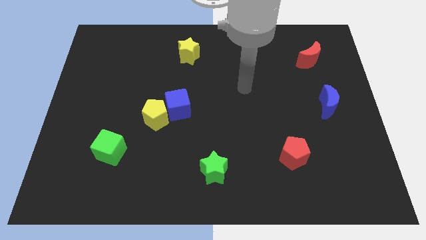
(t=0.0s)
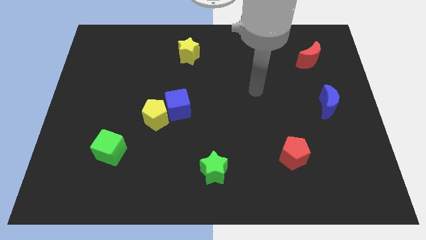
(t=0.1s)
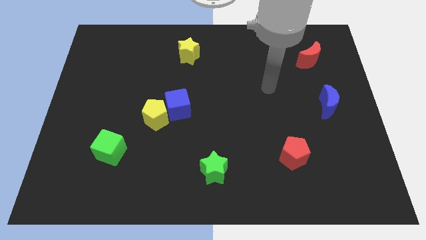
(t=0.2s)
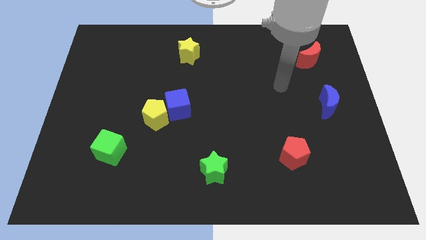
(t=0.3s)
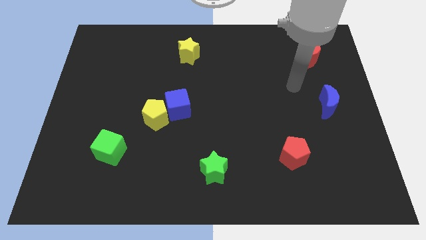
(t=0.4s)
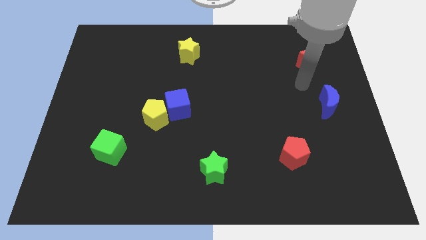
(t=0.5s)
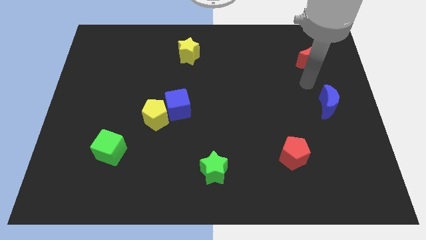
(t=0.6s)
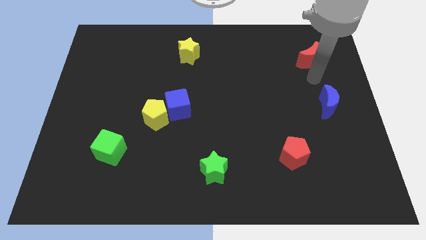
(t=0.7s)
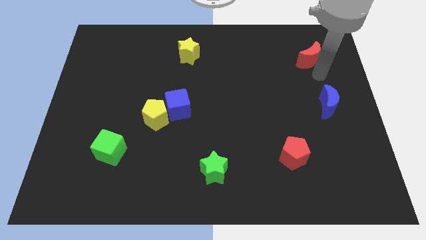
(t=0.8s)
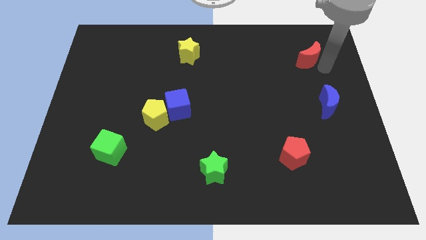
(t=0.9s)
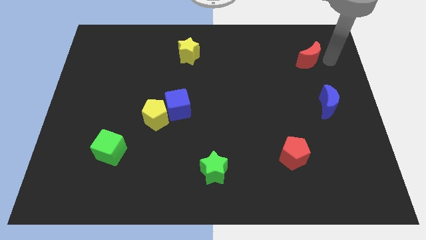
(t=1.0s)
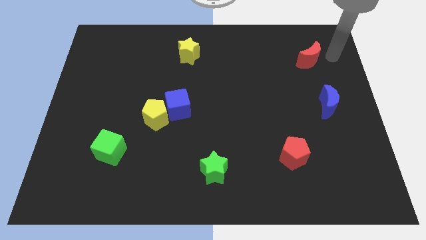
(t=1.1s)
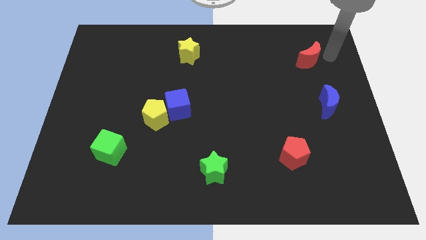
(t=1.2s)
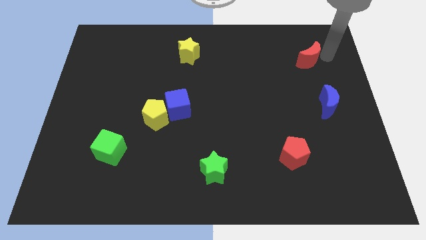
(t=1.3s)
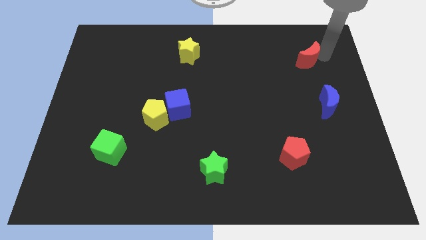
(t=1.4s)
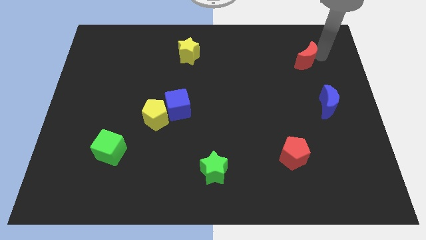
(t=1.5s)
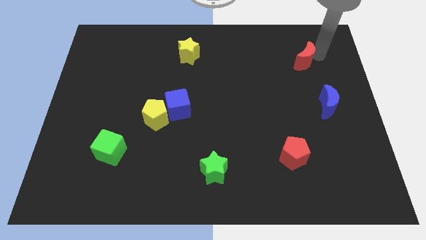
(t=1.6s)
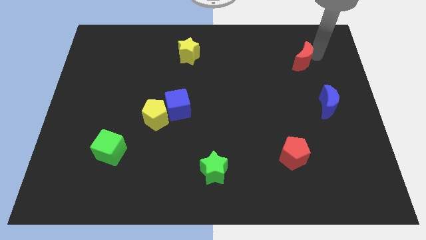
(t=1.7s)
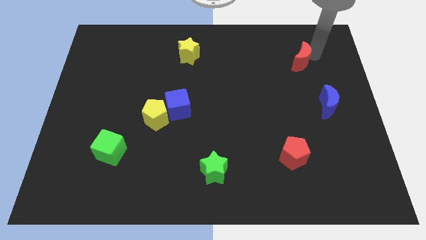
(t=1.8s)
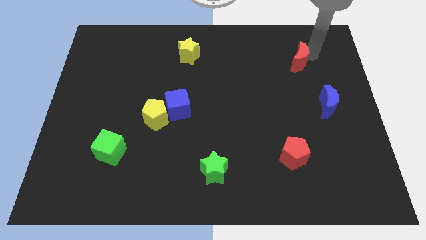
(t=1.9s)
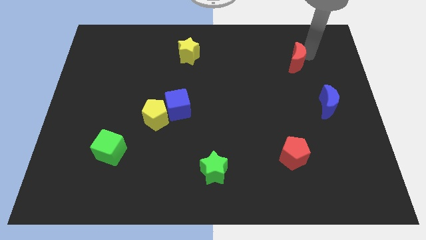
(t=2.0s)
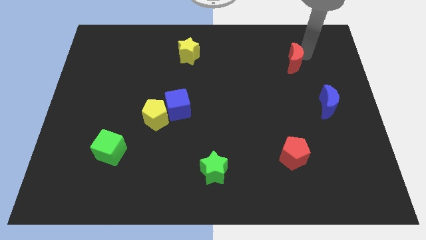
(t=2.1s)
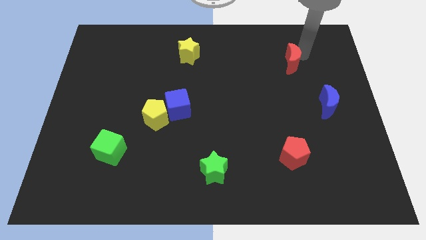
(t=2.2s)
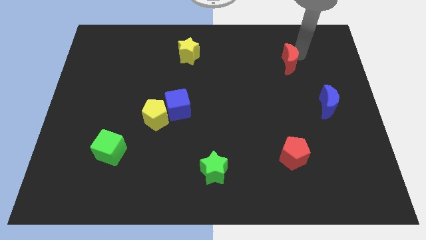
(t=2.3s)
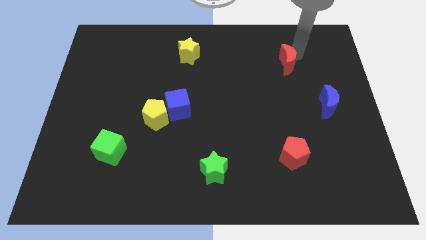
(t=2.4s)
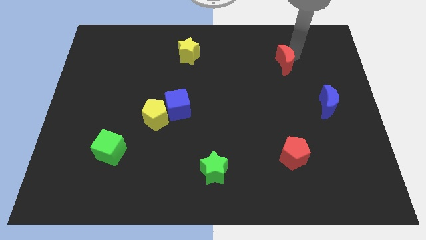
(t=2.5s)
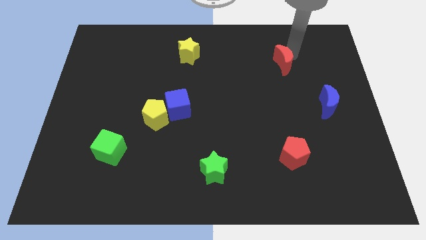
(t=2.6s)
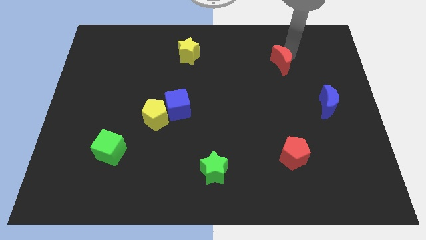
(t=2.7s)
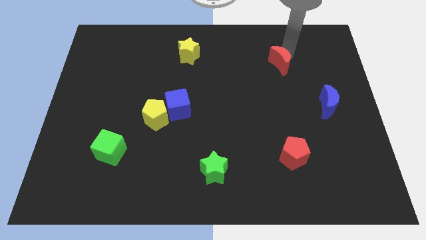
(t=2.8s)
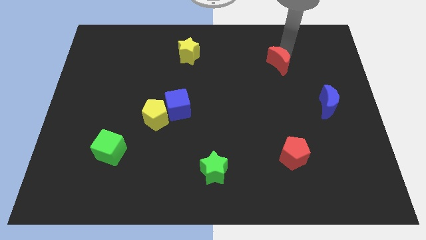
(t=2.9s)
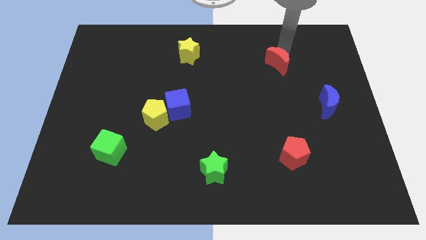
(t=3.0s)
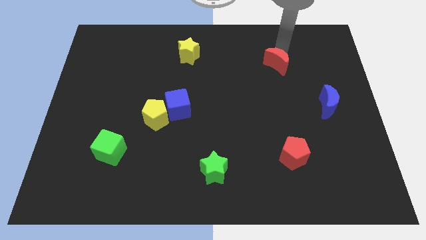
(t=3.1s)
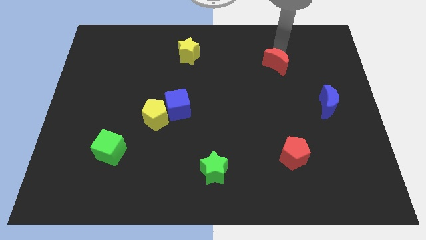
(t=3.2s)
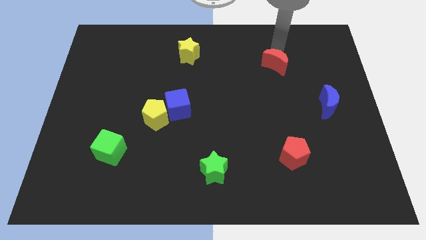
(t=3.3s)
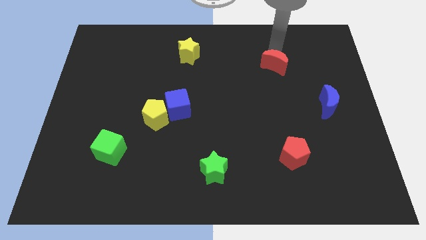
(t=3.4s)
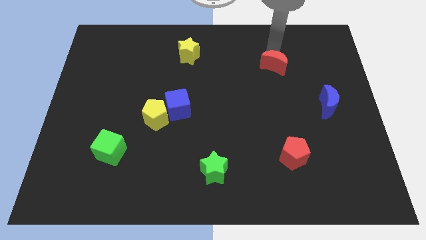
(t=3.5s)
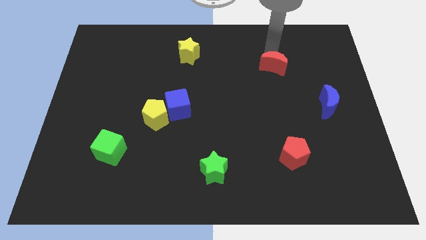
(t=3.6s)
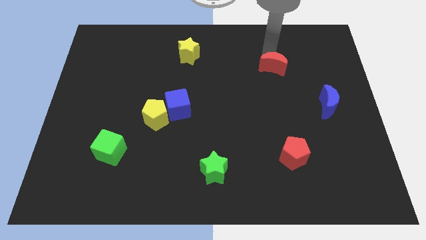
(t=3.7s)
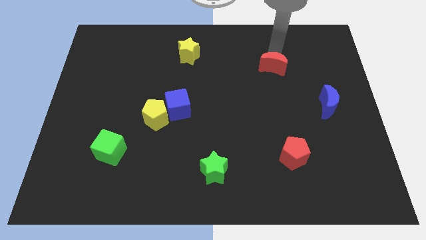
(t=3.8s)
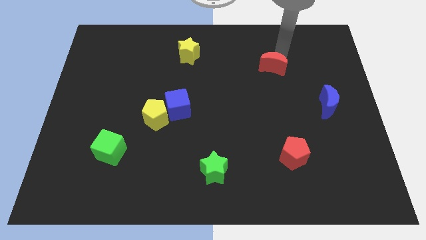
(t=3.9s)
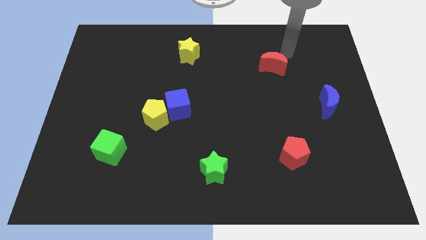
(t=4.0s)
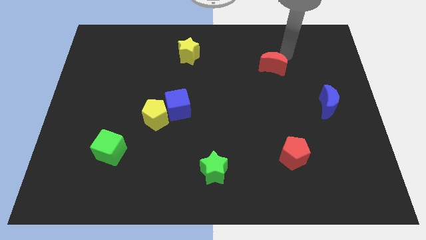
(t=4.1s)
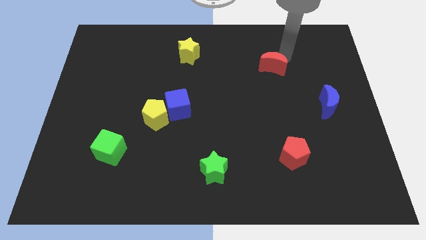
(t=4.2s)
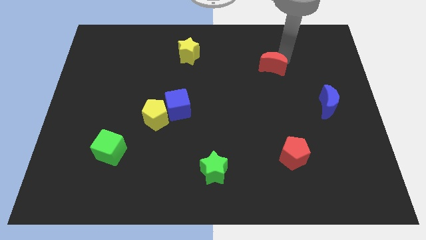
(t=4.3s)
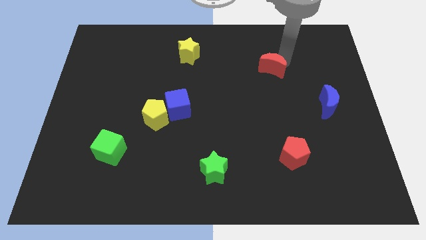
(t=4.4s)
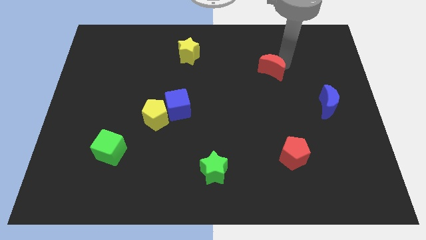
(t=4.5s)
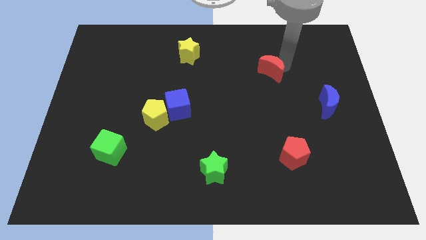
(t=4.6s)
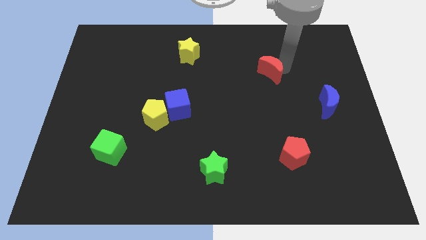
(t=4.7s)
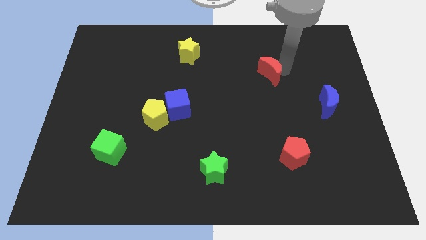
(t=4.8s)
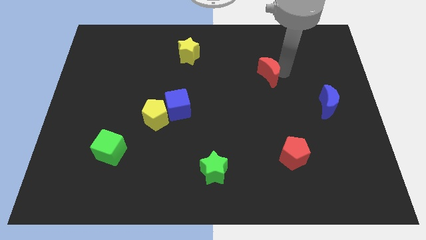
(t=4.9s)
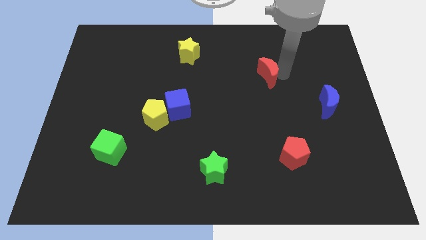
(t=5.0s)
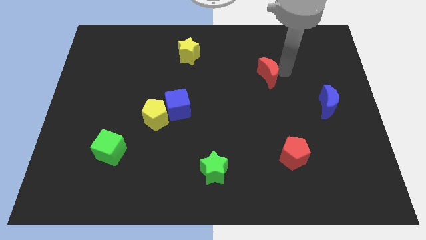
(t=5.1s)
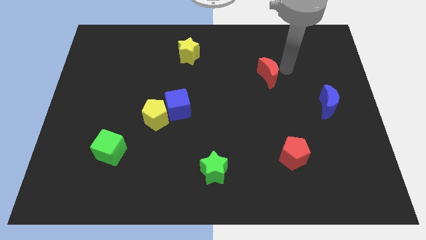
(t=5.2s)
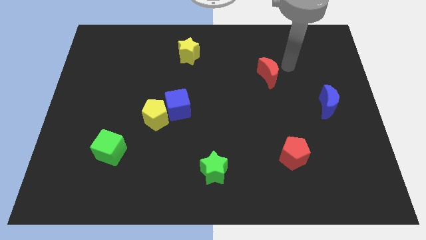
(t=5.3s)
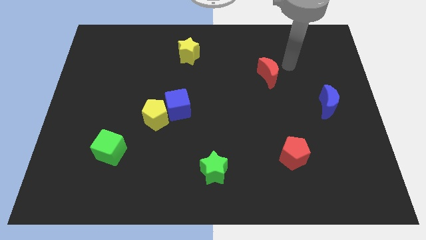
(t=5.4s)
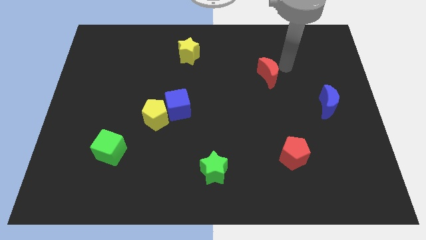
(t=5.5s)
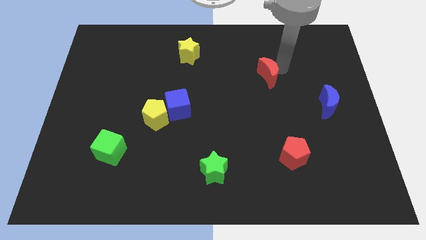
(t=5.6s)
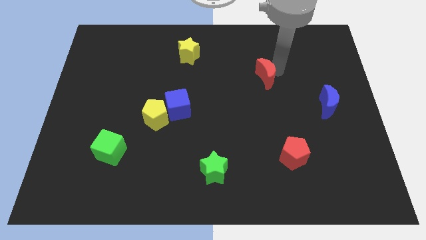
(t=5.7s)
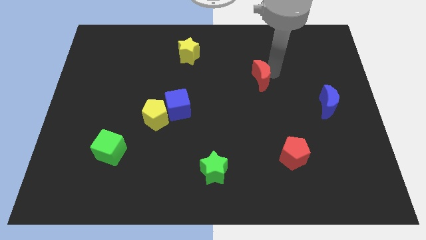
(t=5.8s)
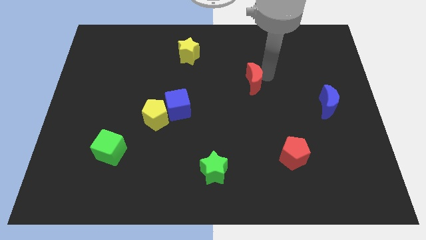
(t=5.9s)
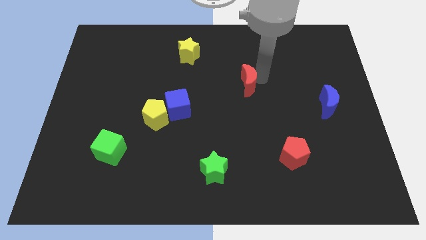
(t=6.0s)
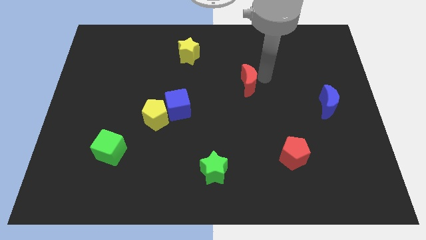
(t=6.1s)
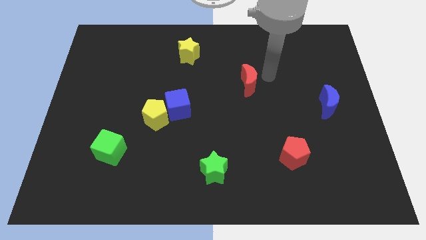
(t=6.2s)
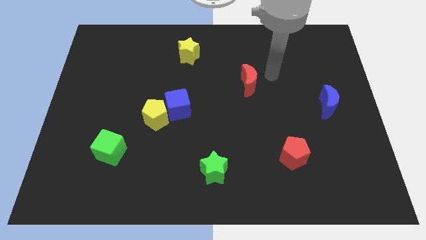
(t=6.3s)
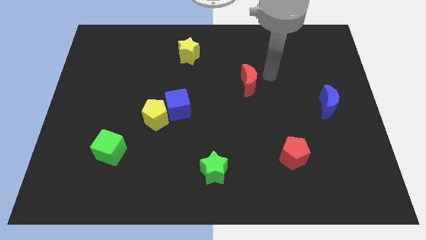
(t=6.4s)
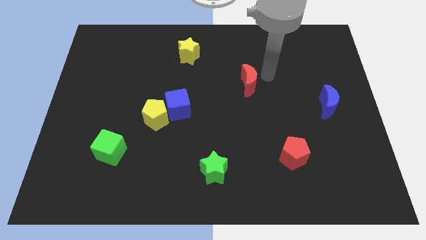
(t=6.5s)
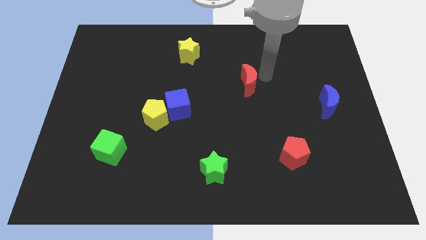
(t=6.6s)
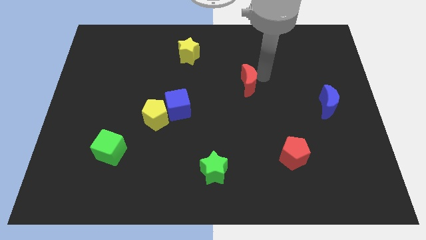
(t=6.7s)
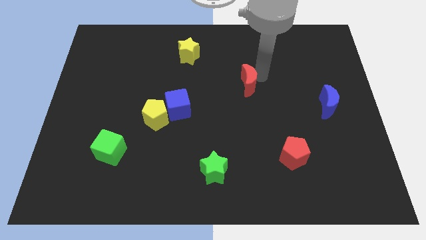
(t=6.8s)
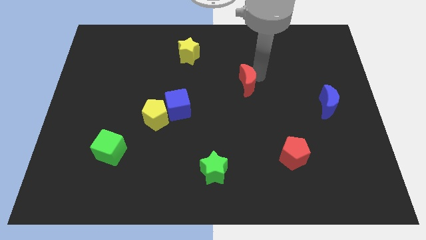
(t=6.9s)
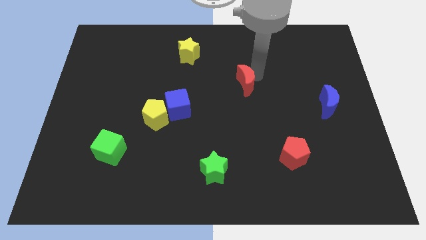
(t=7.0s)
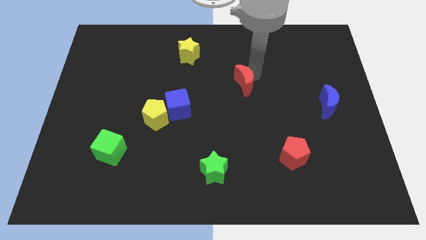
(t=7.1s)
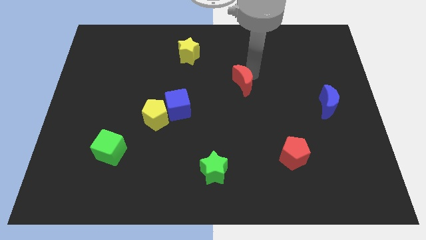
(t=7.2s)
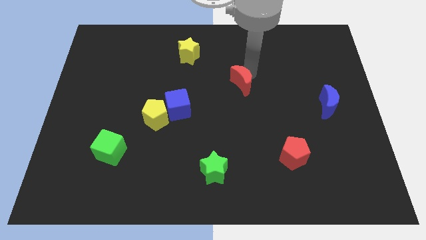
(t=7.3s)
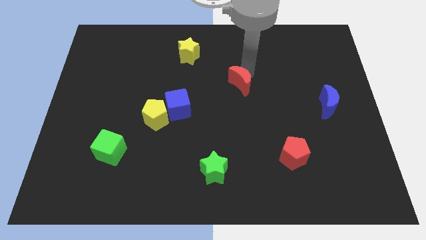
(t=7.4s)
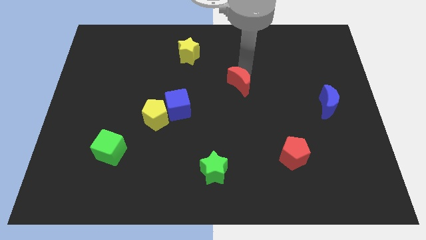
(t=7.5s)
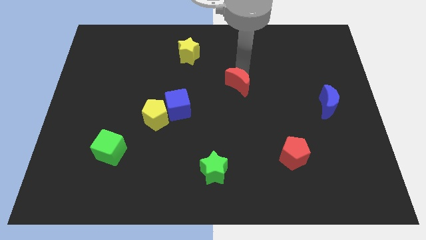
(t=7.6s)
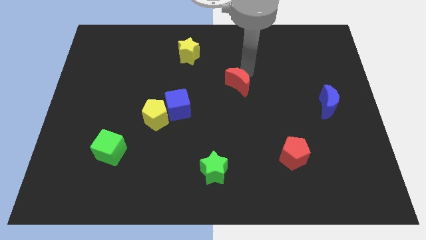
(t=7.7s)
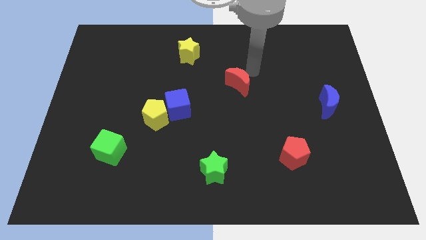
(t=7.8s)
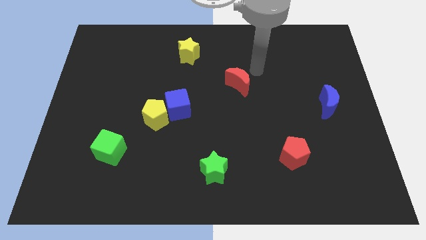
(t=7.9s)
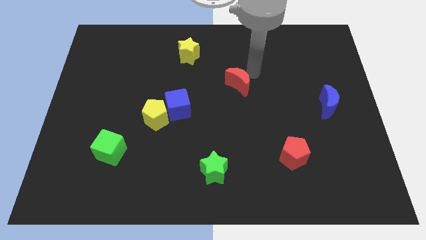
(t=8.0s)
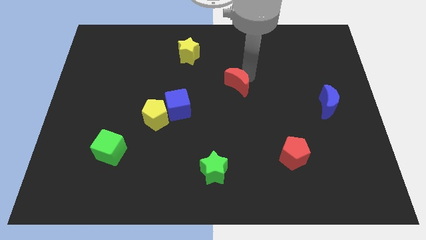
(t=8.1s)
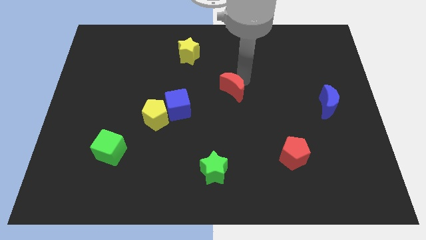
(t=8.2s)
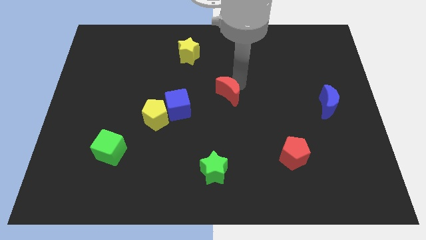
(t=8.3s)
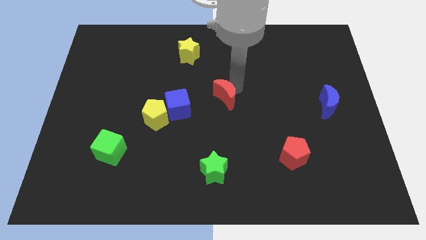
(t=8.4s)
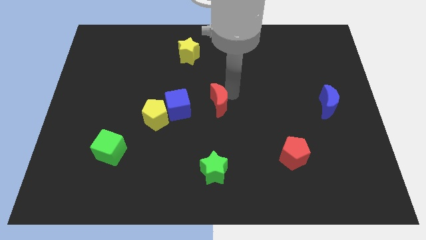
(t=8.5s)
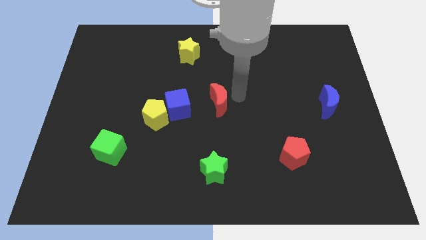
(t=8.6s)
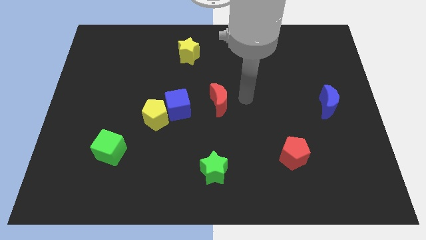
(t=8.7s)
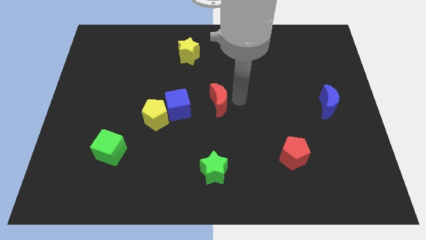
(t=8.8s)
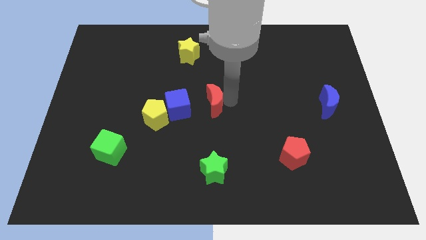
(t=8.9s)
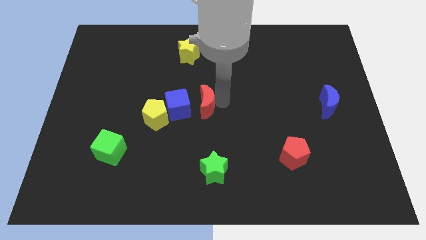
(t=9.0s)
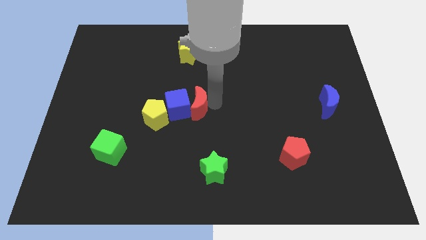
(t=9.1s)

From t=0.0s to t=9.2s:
move the red moon to the blue cube
